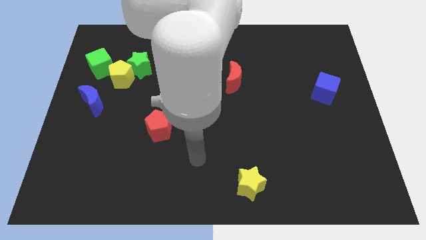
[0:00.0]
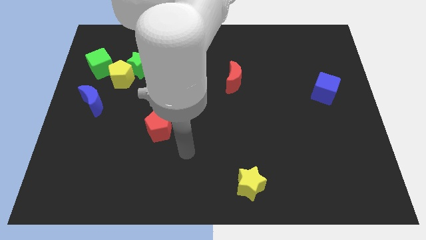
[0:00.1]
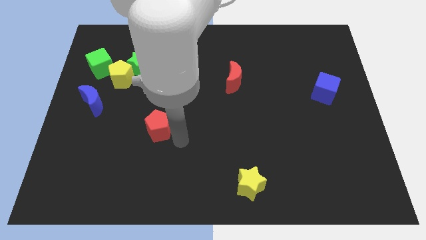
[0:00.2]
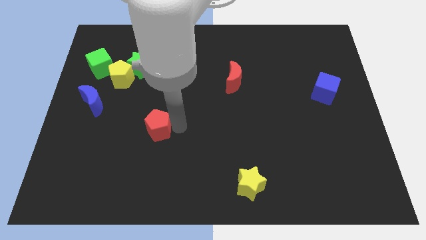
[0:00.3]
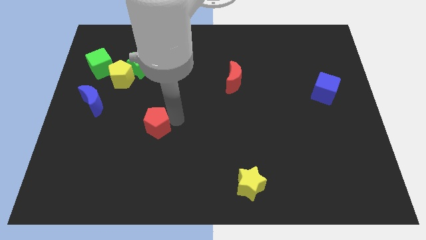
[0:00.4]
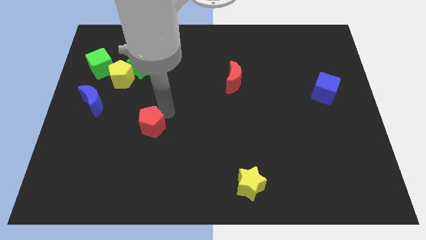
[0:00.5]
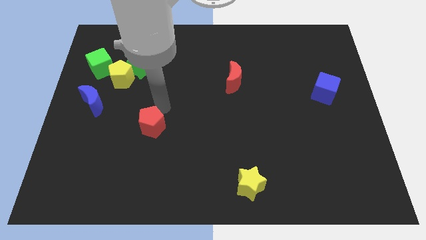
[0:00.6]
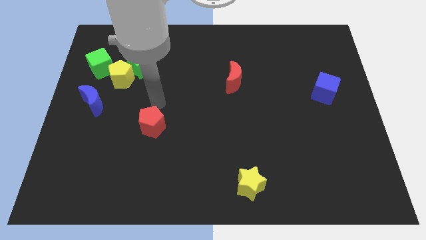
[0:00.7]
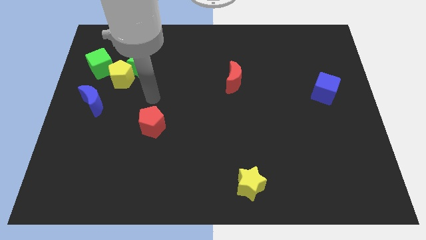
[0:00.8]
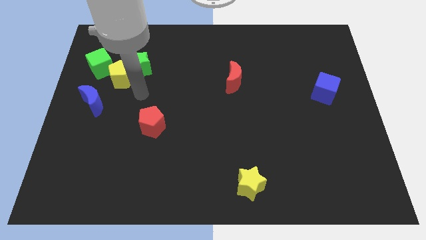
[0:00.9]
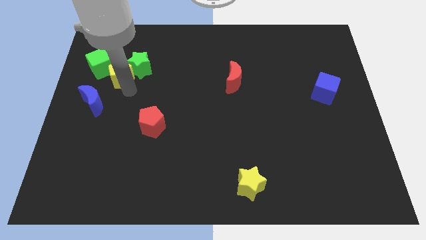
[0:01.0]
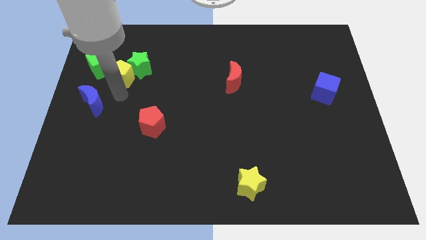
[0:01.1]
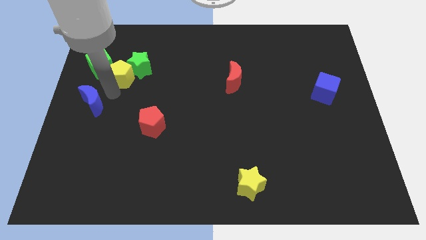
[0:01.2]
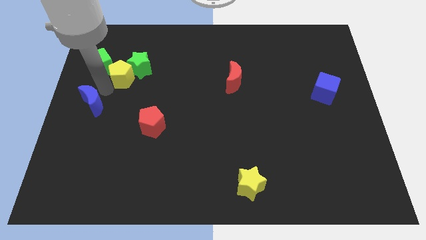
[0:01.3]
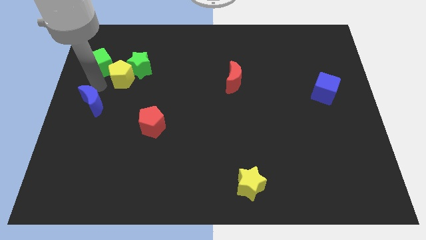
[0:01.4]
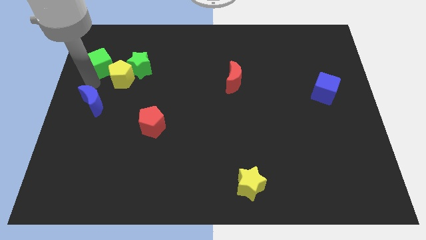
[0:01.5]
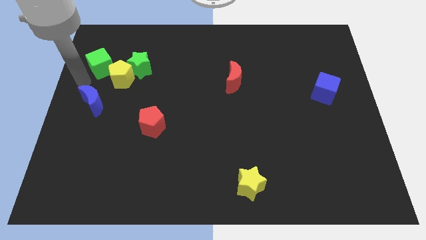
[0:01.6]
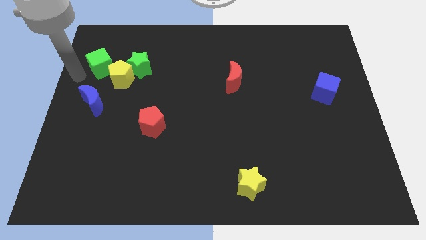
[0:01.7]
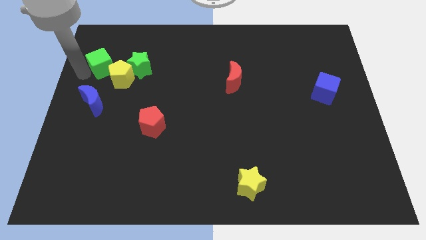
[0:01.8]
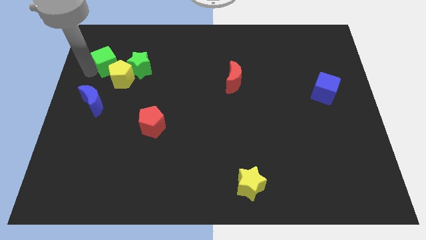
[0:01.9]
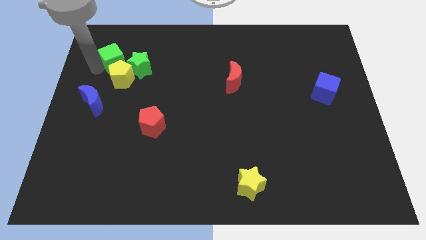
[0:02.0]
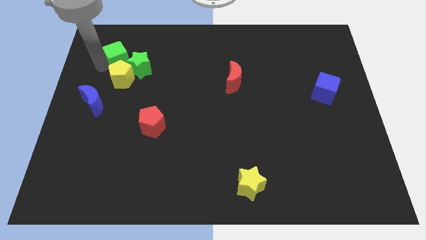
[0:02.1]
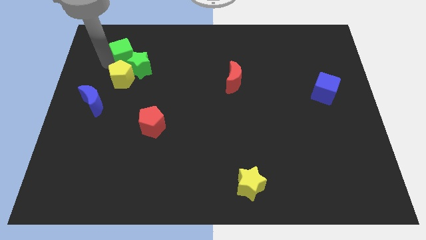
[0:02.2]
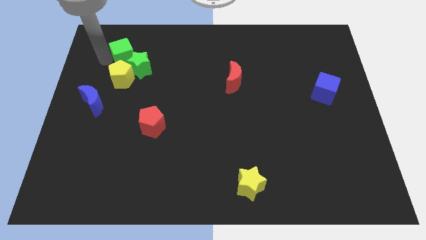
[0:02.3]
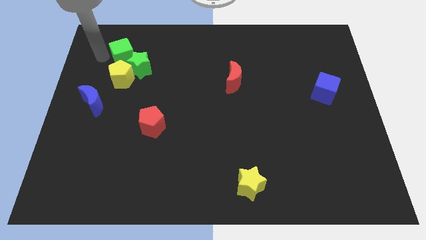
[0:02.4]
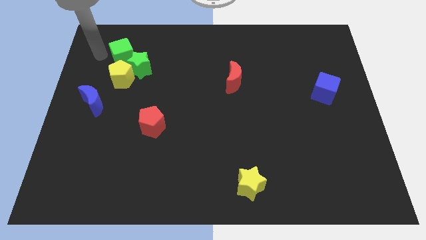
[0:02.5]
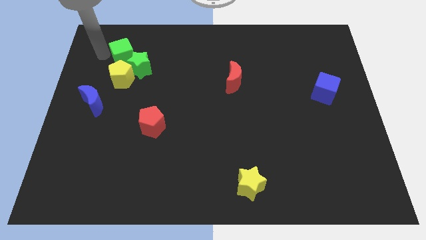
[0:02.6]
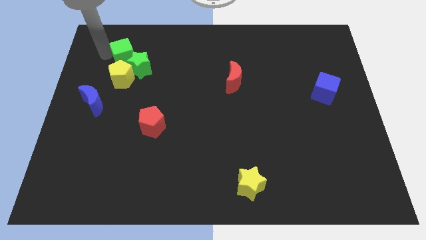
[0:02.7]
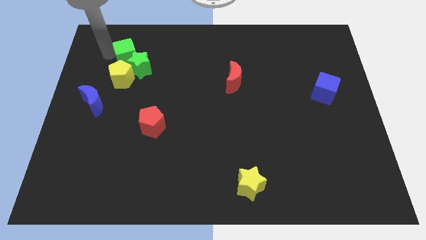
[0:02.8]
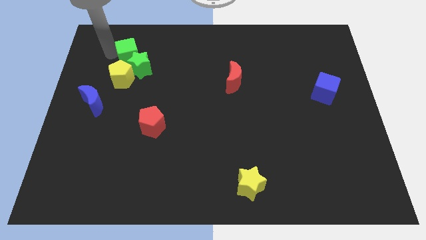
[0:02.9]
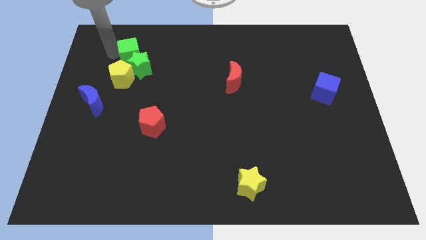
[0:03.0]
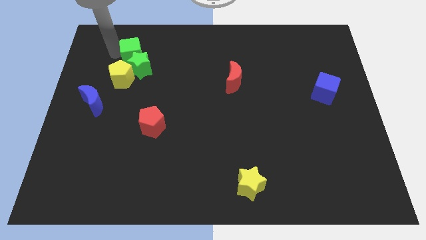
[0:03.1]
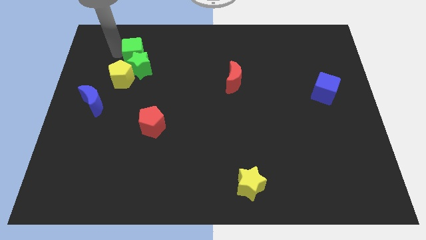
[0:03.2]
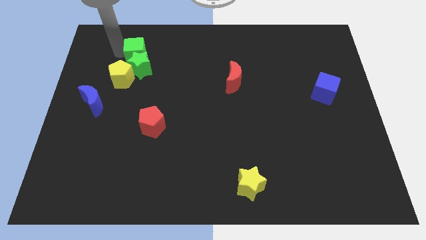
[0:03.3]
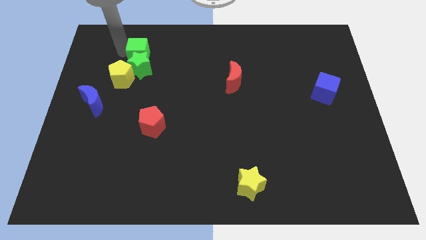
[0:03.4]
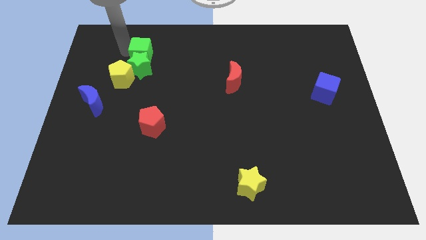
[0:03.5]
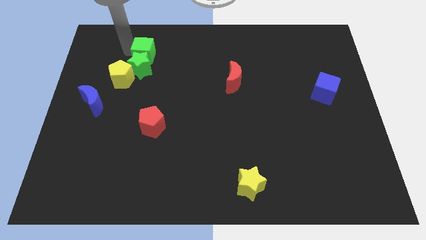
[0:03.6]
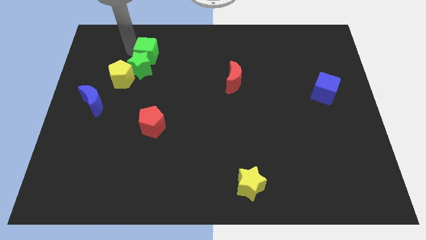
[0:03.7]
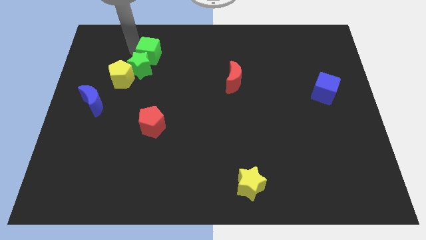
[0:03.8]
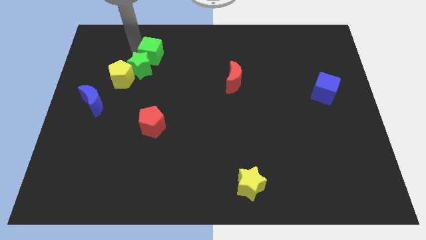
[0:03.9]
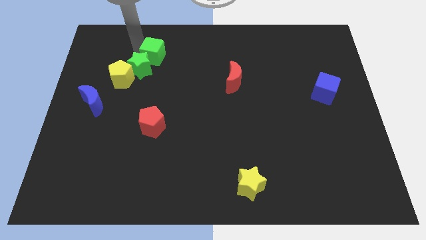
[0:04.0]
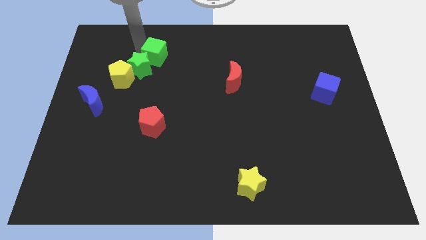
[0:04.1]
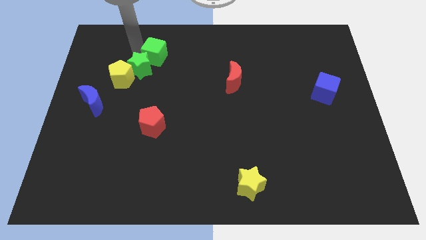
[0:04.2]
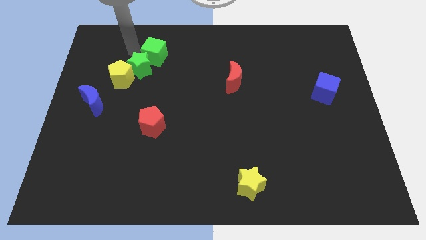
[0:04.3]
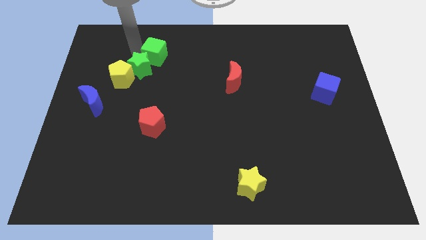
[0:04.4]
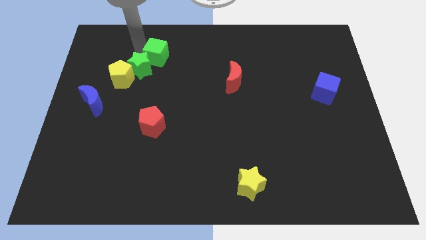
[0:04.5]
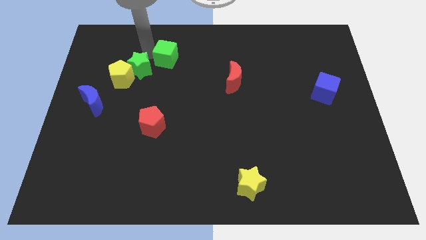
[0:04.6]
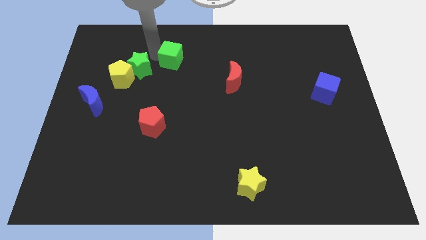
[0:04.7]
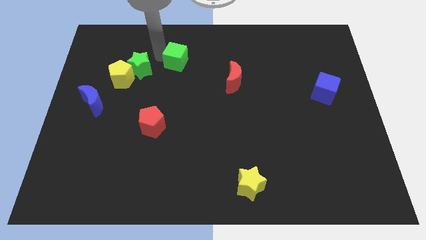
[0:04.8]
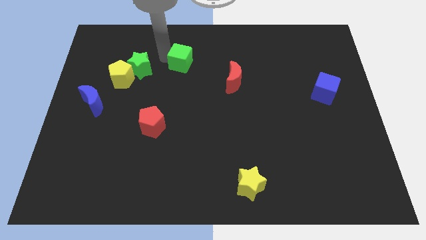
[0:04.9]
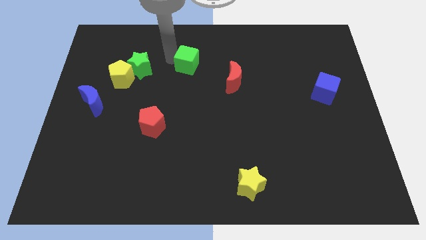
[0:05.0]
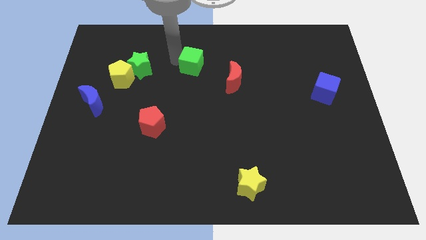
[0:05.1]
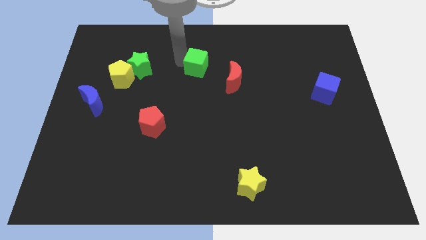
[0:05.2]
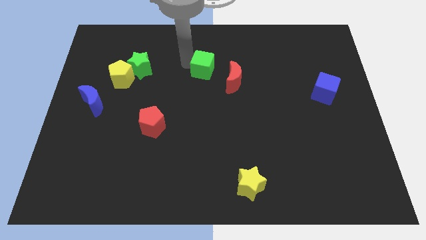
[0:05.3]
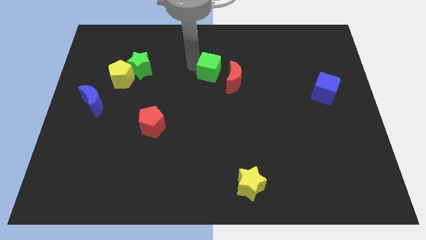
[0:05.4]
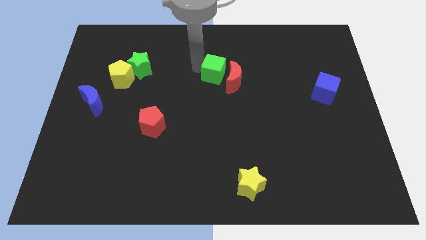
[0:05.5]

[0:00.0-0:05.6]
move the green cube towards the red moon

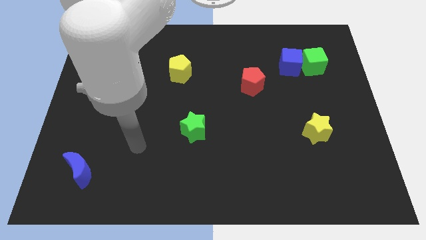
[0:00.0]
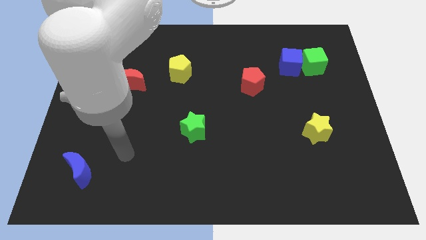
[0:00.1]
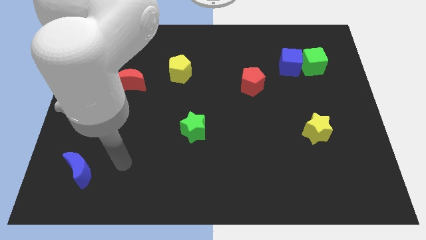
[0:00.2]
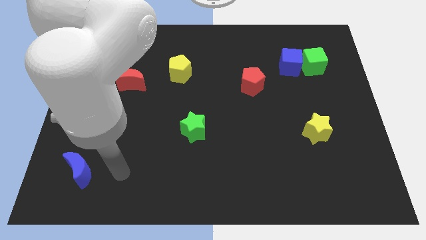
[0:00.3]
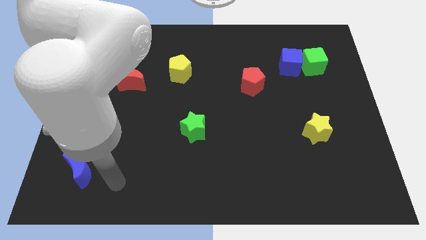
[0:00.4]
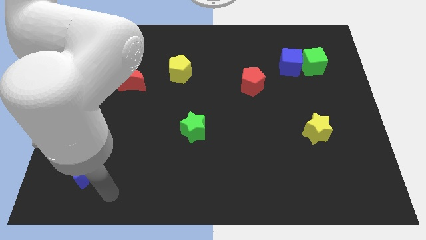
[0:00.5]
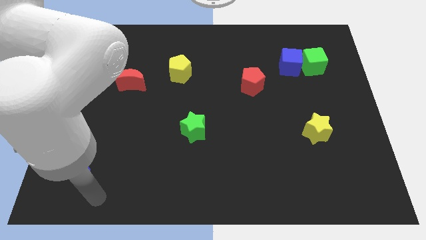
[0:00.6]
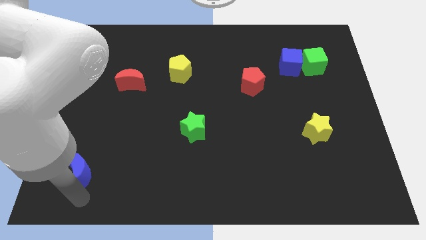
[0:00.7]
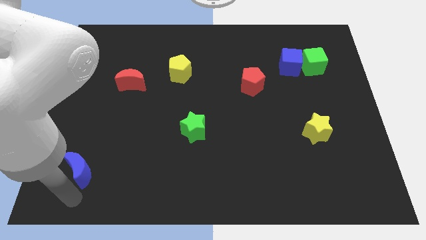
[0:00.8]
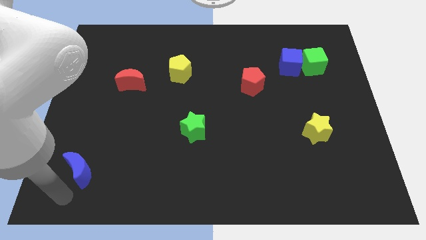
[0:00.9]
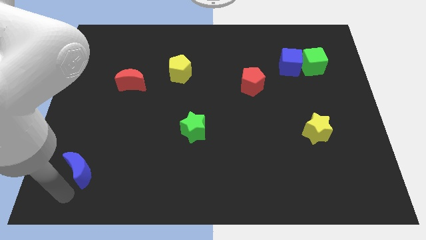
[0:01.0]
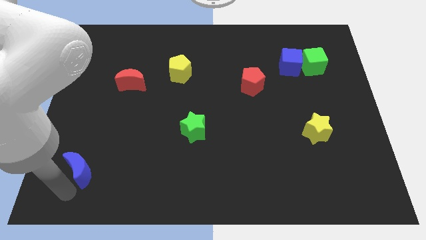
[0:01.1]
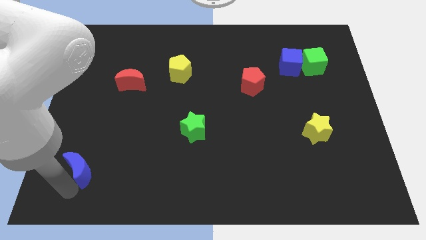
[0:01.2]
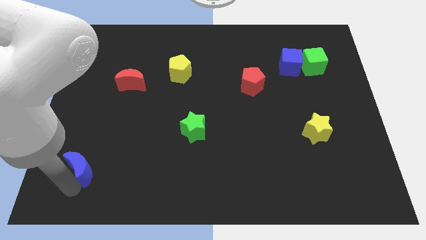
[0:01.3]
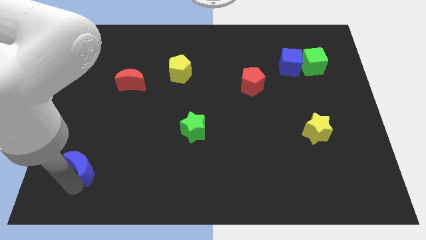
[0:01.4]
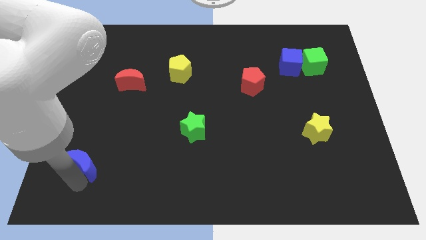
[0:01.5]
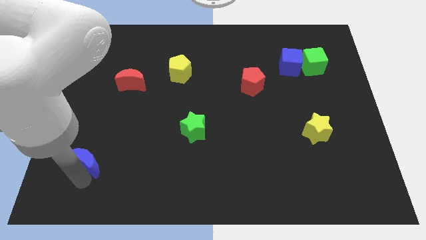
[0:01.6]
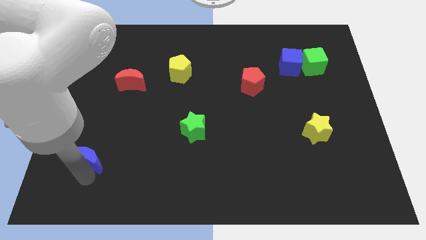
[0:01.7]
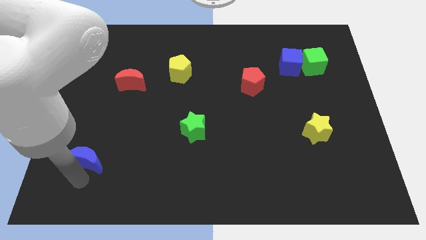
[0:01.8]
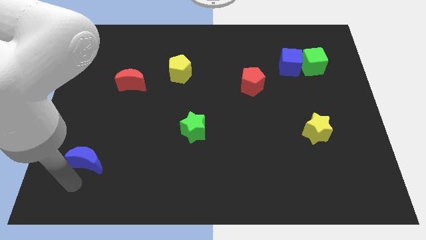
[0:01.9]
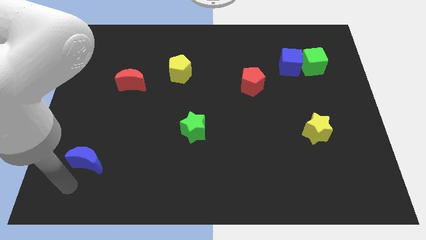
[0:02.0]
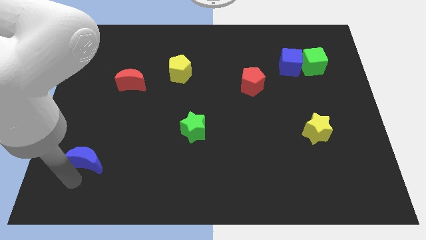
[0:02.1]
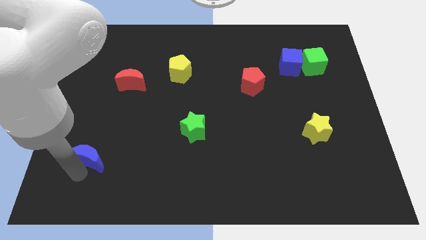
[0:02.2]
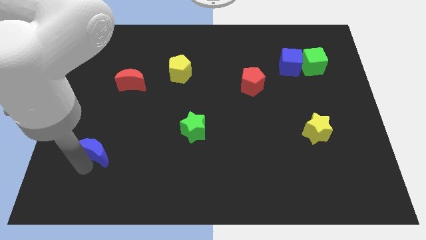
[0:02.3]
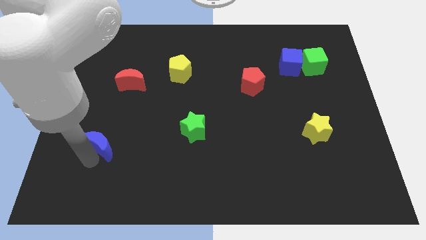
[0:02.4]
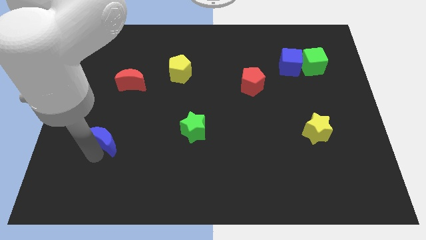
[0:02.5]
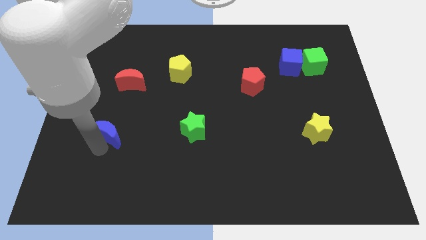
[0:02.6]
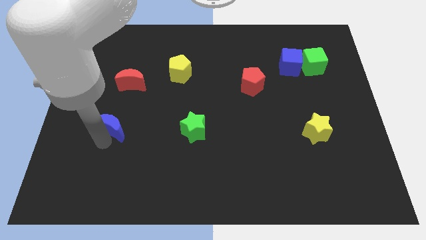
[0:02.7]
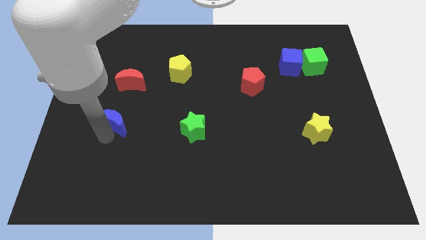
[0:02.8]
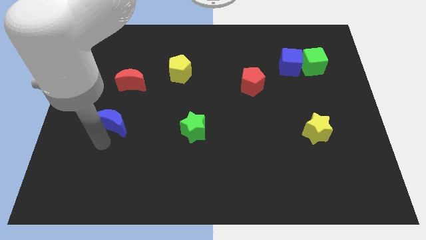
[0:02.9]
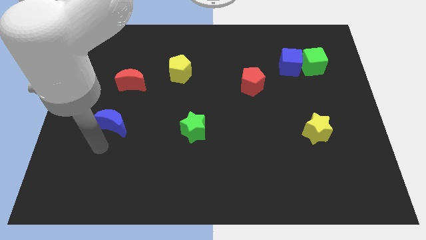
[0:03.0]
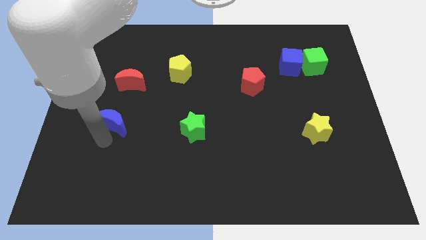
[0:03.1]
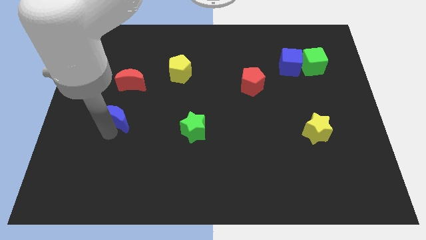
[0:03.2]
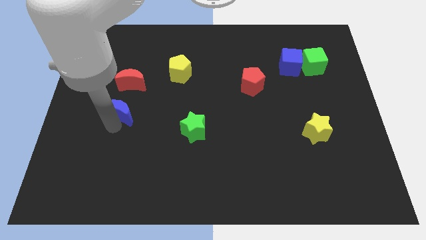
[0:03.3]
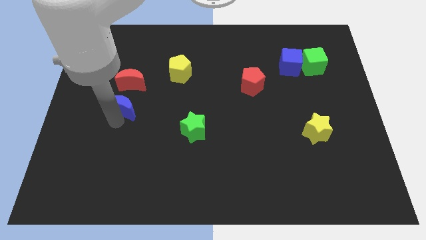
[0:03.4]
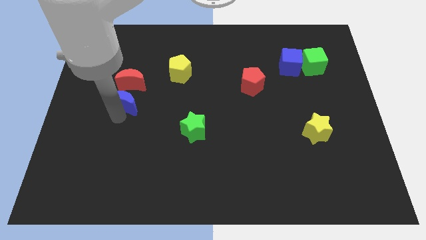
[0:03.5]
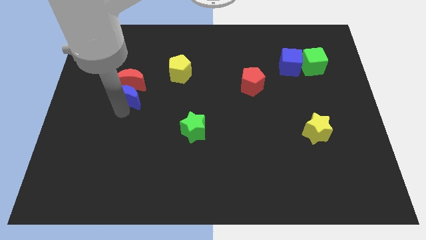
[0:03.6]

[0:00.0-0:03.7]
slide the blue moon next to the red moon
